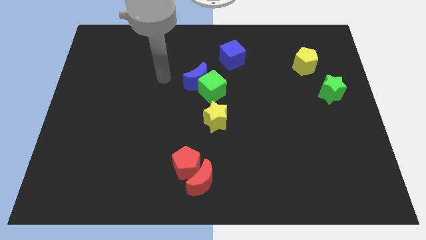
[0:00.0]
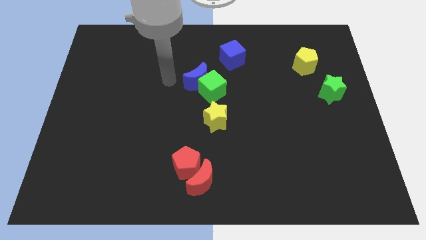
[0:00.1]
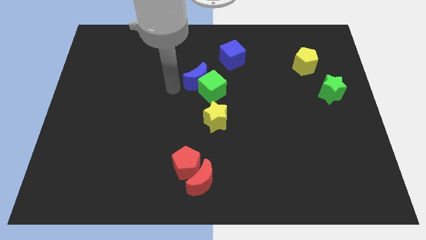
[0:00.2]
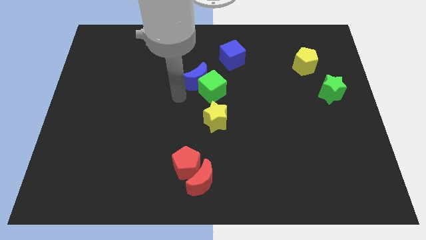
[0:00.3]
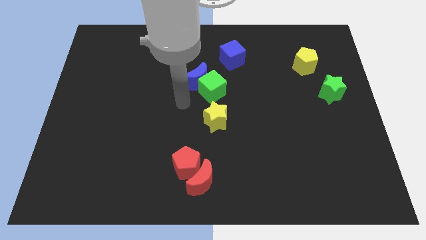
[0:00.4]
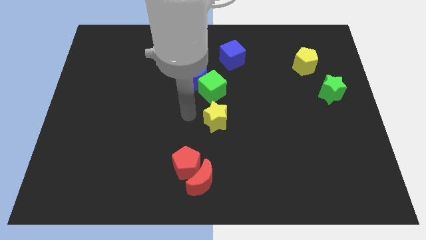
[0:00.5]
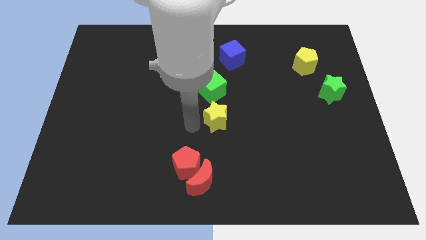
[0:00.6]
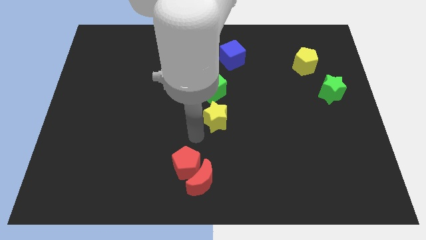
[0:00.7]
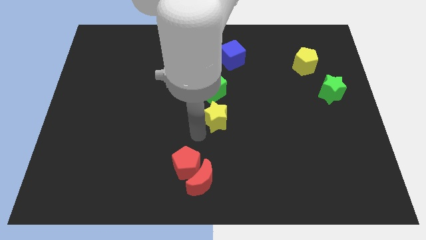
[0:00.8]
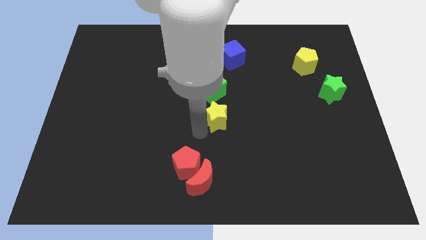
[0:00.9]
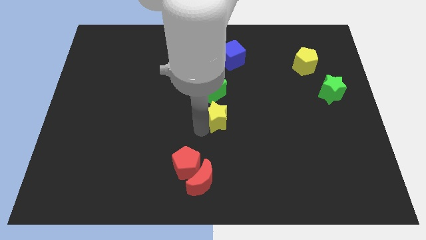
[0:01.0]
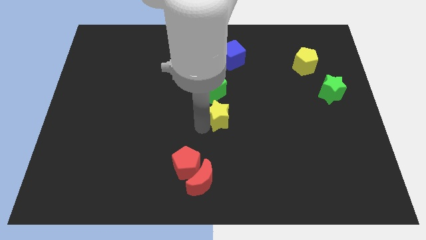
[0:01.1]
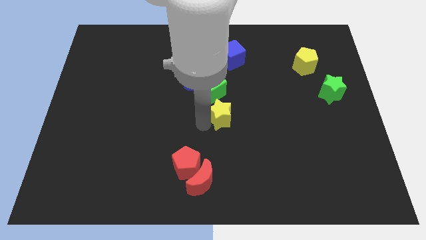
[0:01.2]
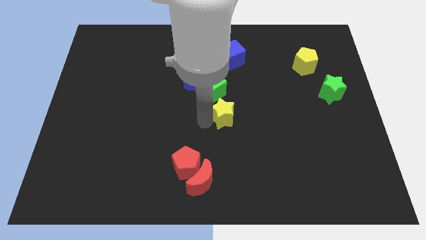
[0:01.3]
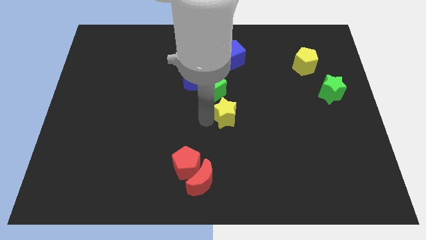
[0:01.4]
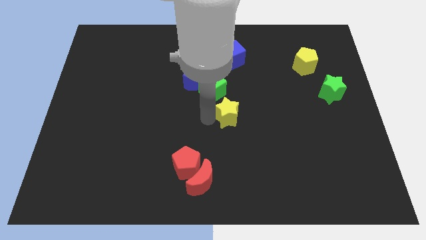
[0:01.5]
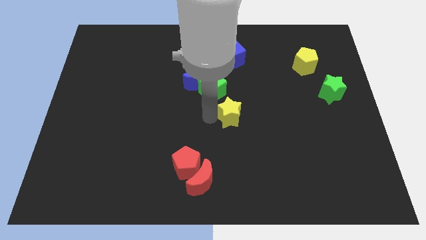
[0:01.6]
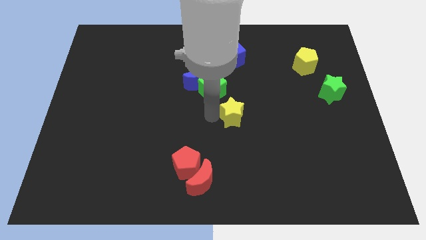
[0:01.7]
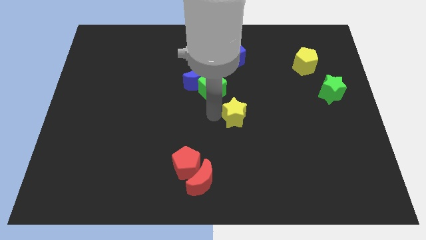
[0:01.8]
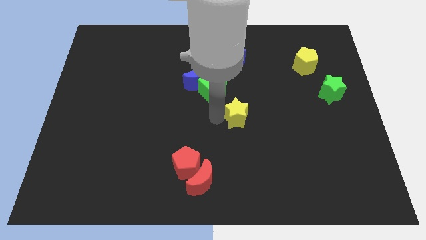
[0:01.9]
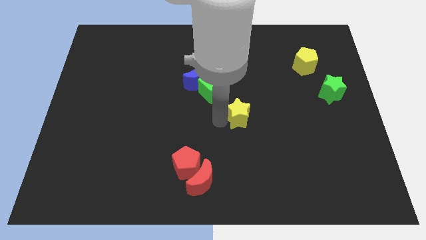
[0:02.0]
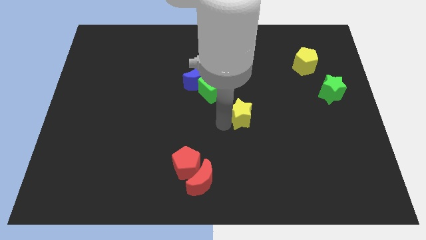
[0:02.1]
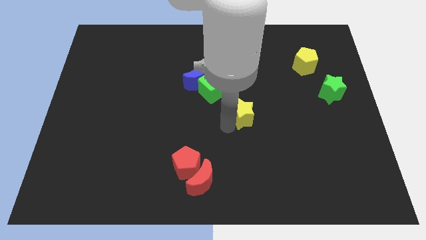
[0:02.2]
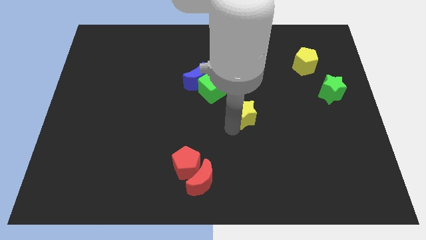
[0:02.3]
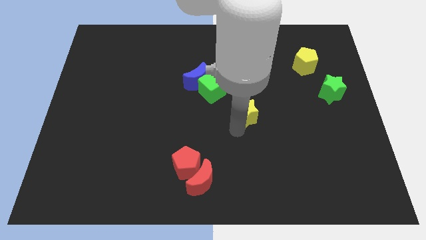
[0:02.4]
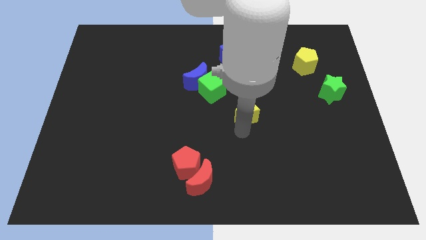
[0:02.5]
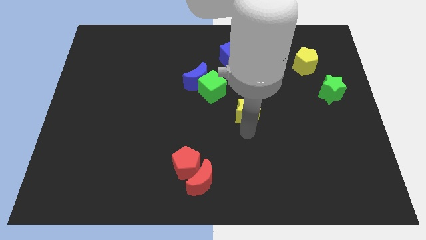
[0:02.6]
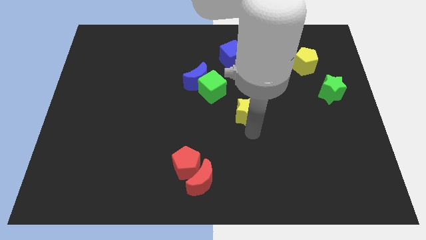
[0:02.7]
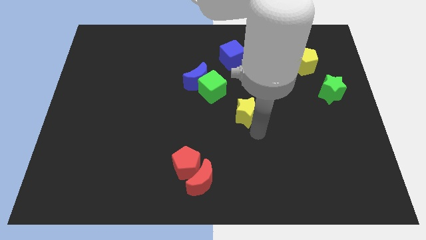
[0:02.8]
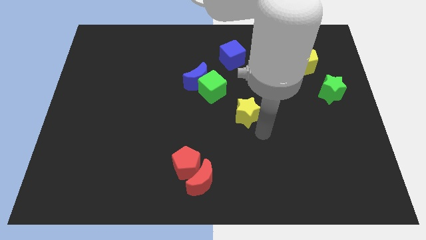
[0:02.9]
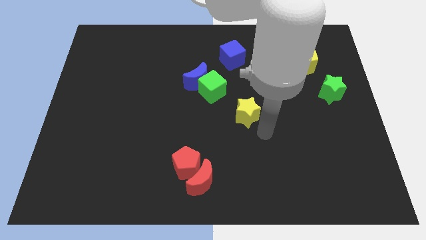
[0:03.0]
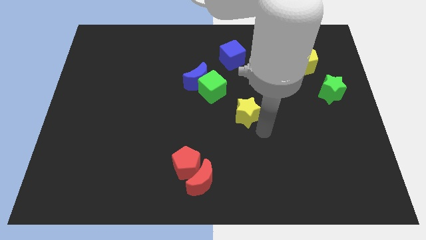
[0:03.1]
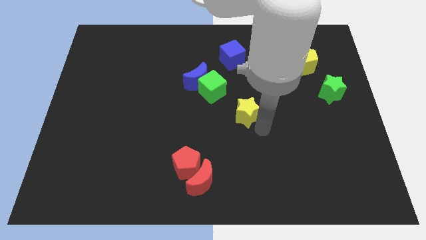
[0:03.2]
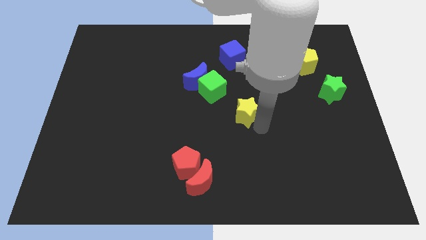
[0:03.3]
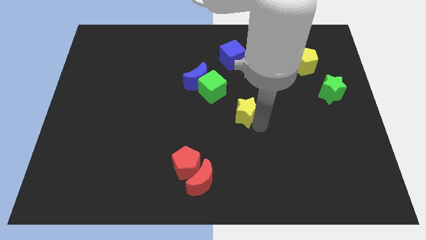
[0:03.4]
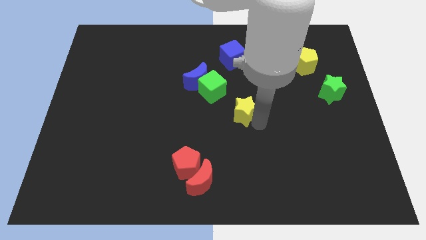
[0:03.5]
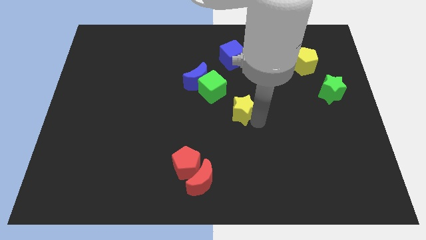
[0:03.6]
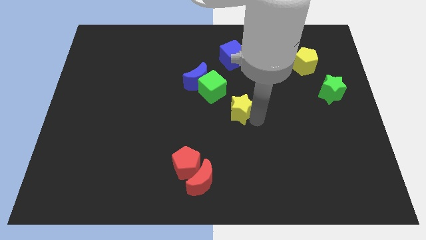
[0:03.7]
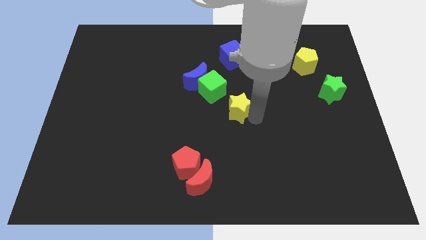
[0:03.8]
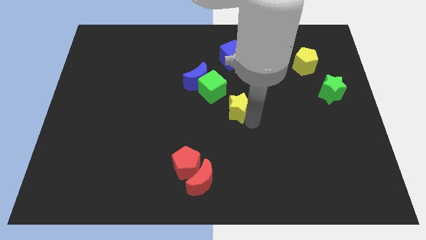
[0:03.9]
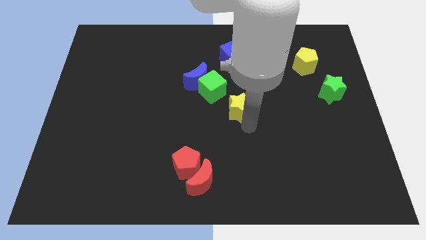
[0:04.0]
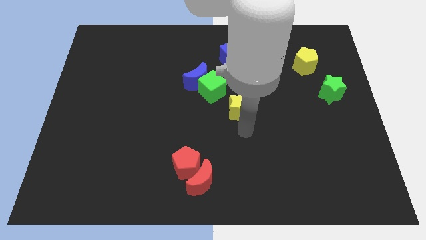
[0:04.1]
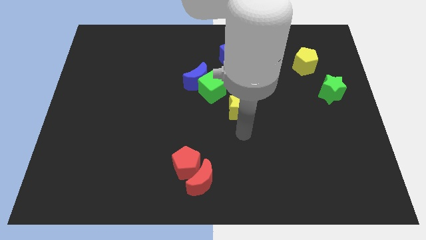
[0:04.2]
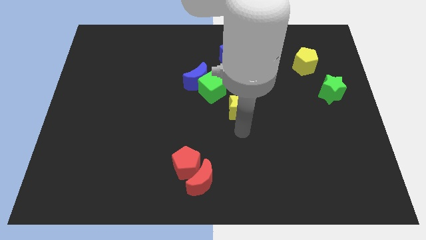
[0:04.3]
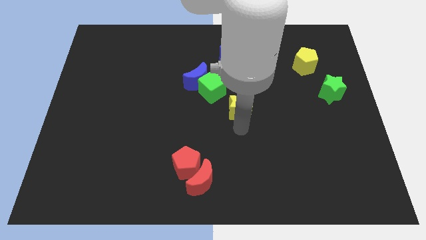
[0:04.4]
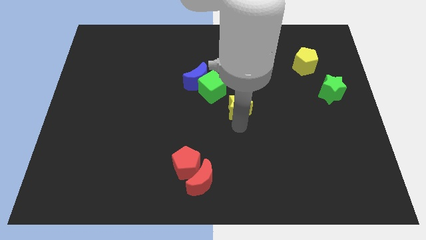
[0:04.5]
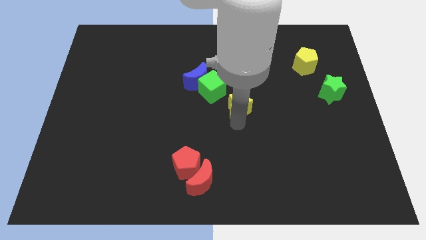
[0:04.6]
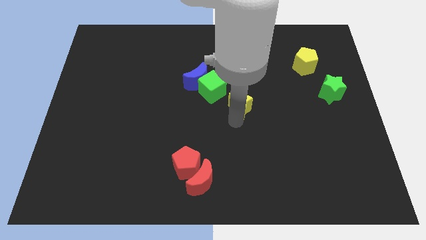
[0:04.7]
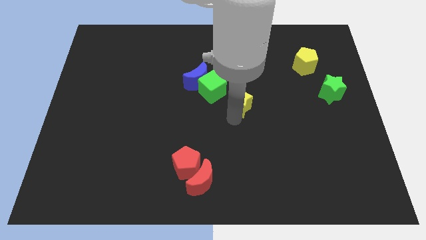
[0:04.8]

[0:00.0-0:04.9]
slide the yellow star below the blue cube

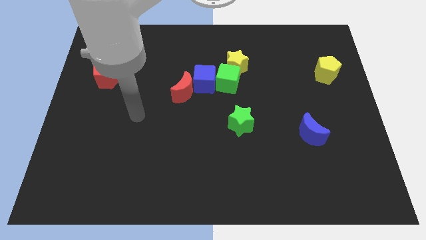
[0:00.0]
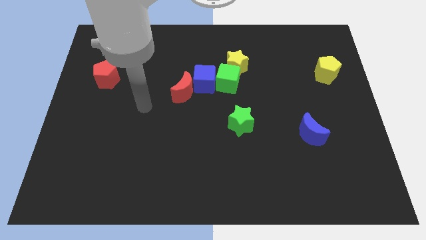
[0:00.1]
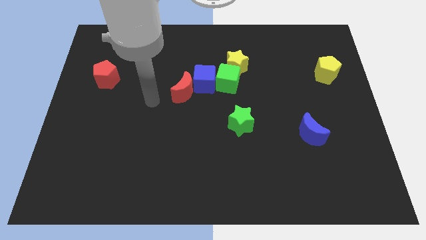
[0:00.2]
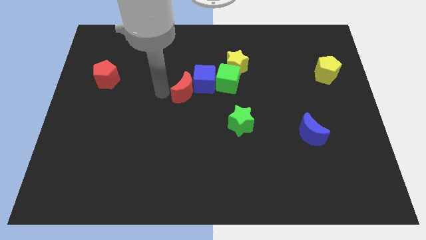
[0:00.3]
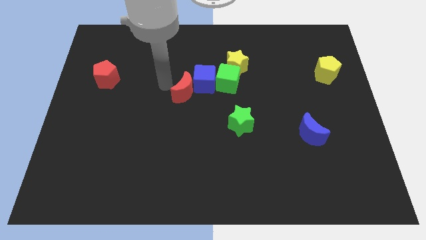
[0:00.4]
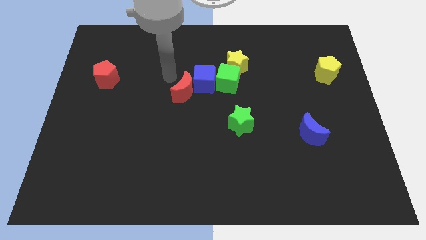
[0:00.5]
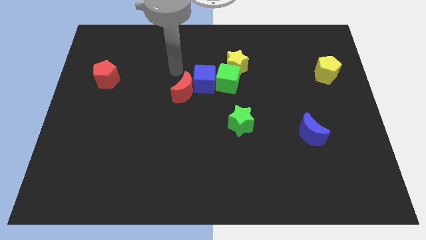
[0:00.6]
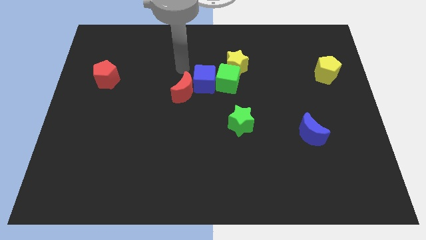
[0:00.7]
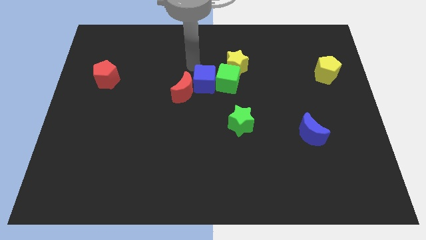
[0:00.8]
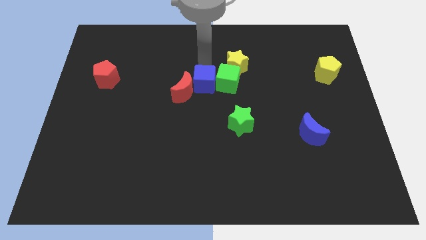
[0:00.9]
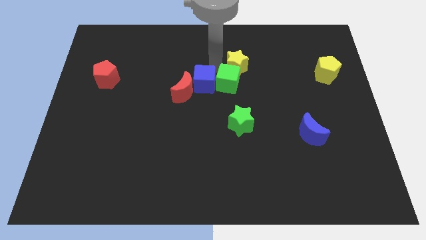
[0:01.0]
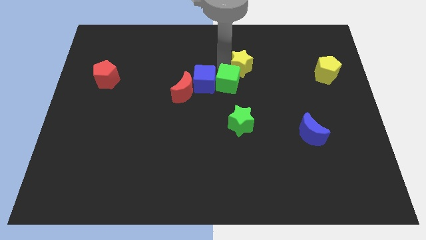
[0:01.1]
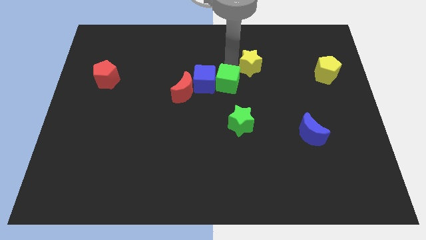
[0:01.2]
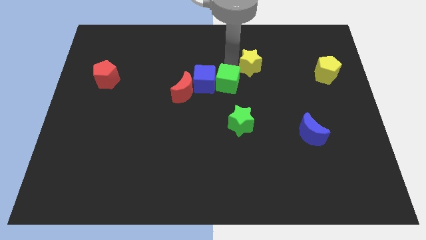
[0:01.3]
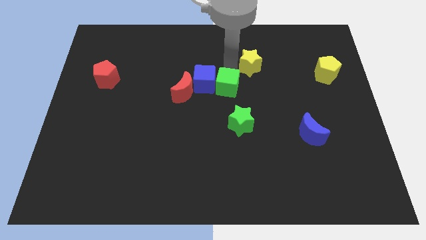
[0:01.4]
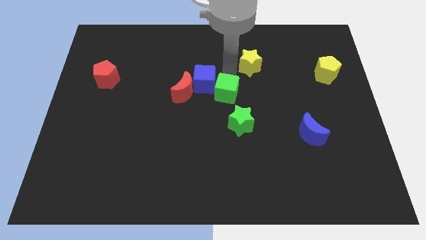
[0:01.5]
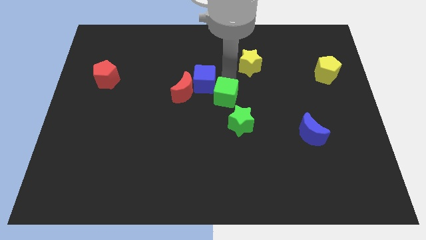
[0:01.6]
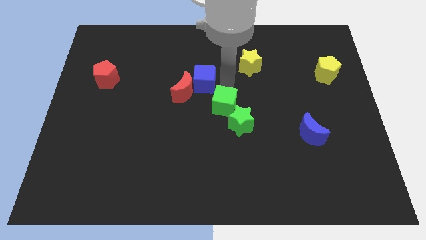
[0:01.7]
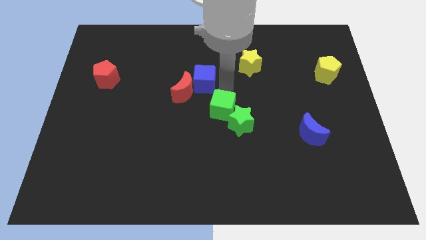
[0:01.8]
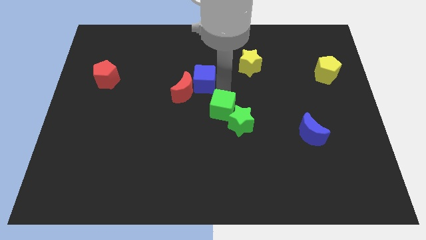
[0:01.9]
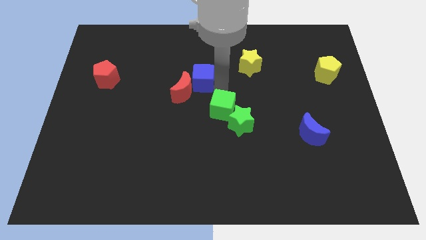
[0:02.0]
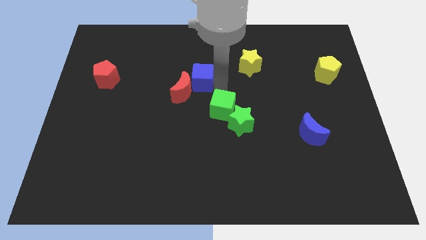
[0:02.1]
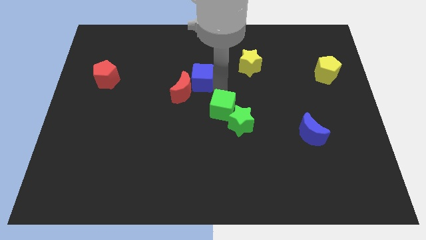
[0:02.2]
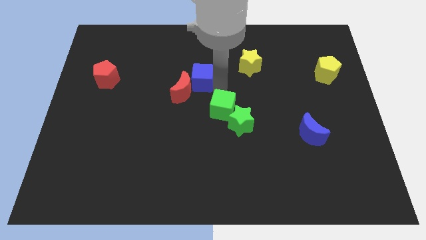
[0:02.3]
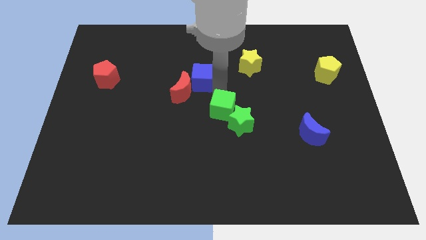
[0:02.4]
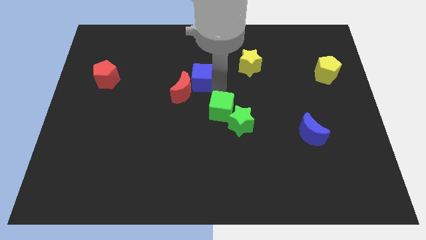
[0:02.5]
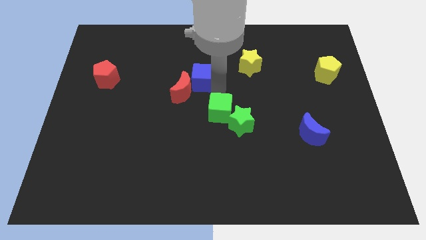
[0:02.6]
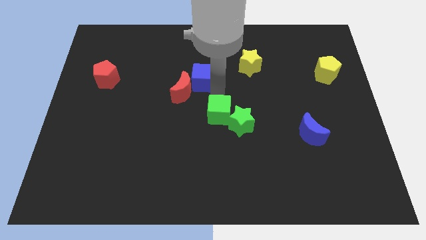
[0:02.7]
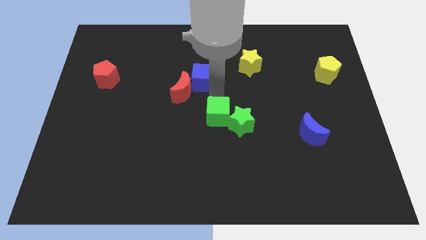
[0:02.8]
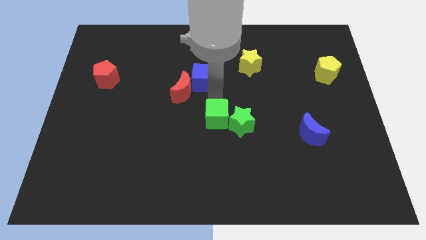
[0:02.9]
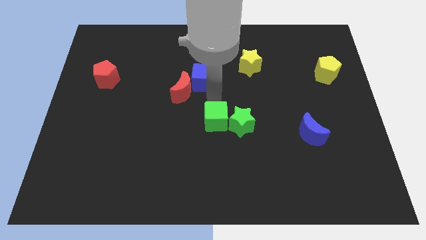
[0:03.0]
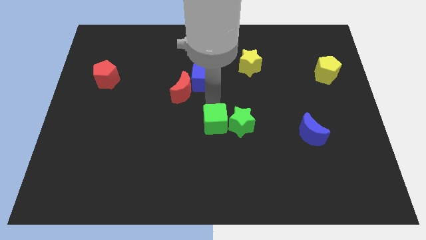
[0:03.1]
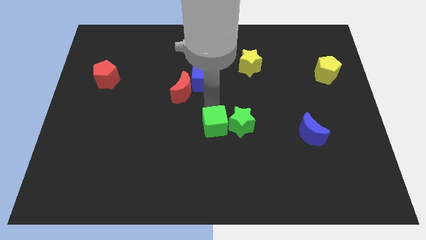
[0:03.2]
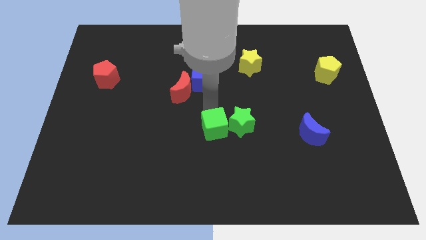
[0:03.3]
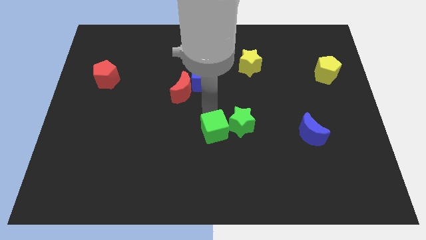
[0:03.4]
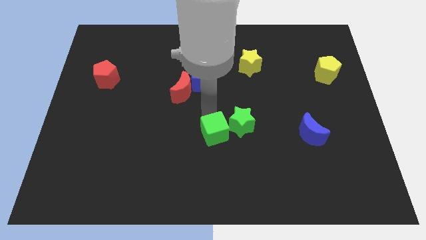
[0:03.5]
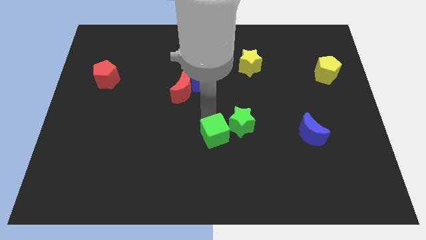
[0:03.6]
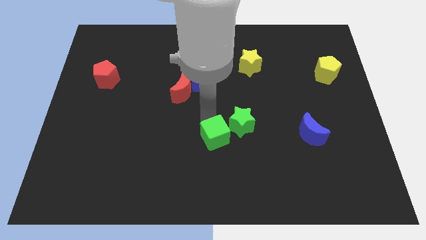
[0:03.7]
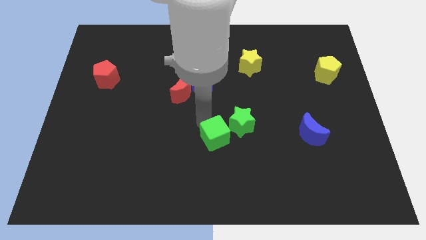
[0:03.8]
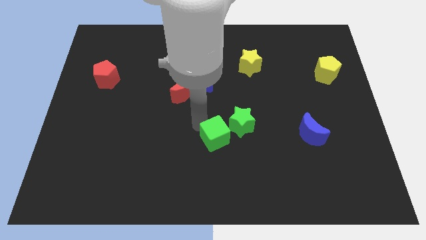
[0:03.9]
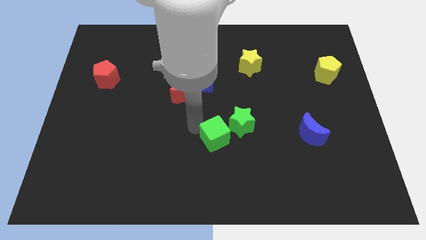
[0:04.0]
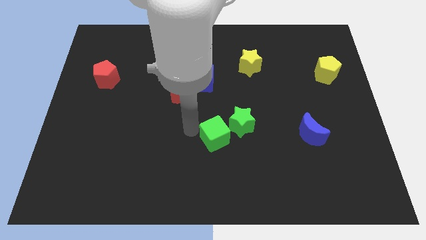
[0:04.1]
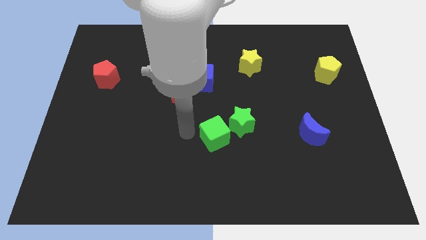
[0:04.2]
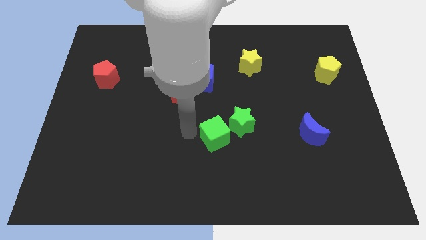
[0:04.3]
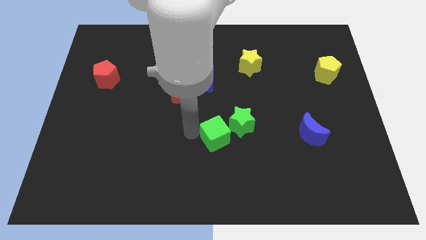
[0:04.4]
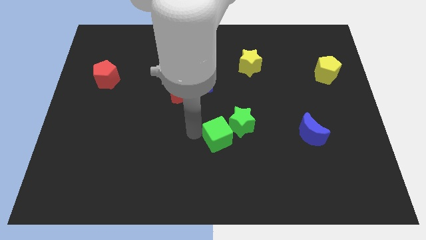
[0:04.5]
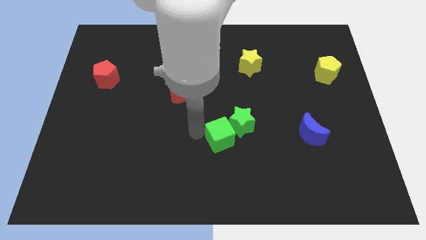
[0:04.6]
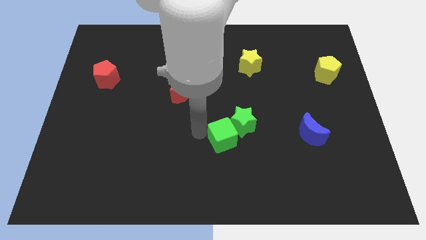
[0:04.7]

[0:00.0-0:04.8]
put the green cube below the green star
